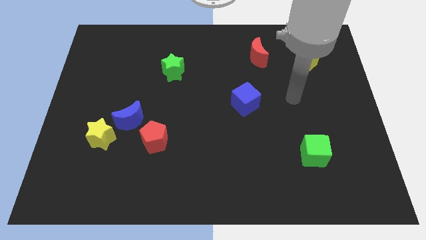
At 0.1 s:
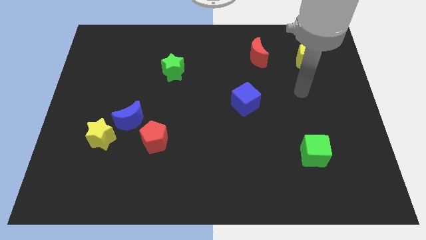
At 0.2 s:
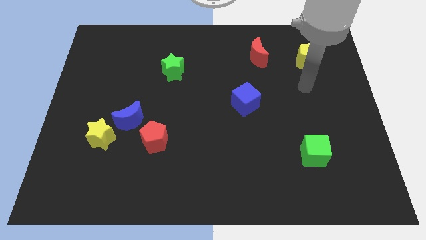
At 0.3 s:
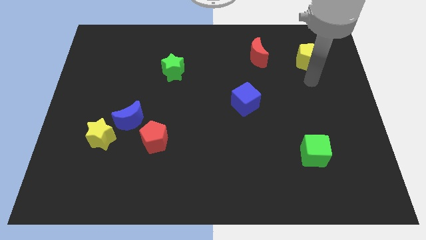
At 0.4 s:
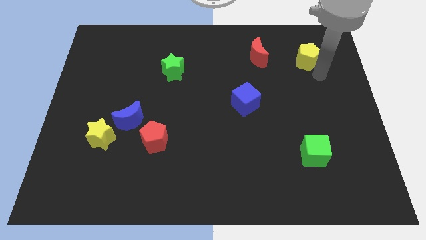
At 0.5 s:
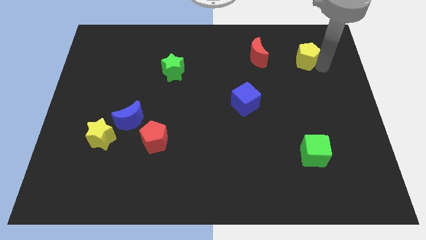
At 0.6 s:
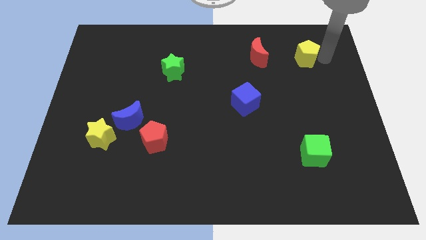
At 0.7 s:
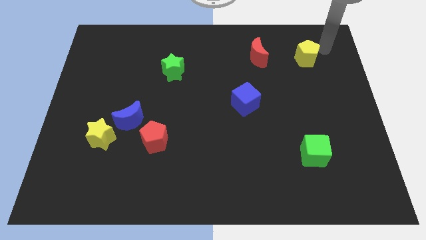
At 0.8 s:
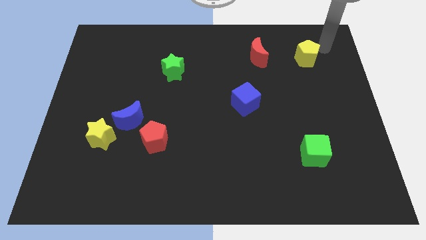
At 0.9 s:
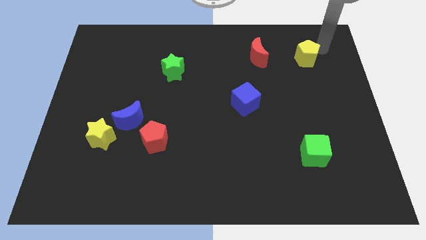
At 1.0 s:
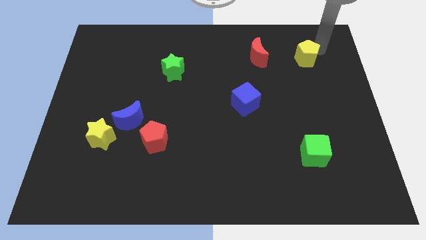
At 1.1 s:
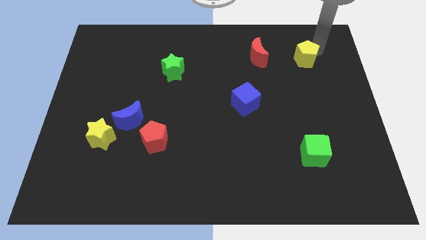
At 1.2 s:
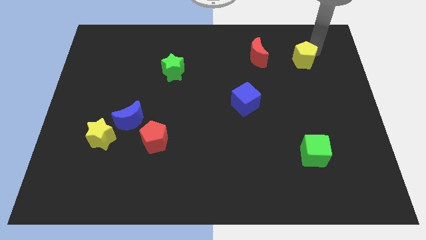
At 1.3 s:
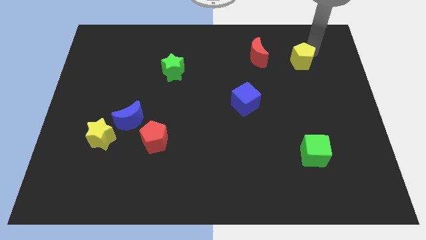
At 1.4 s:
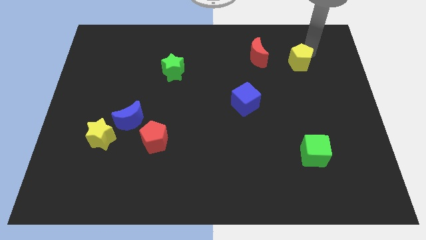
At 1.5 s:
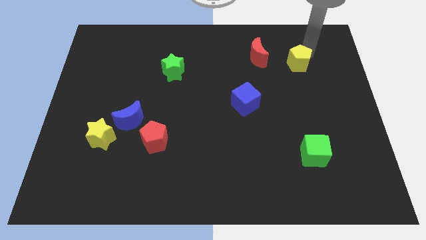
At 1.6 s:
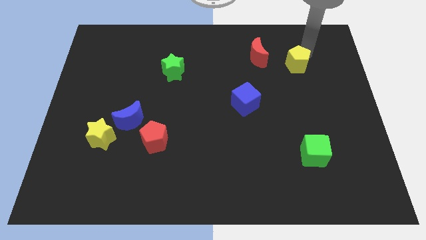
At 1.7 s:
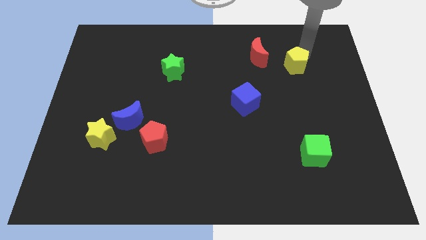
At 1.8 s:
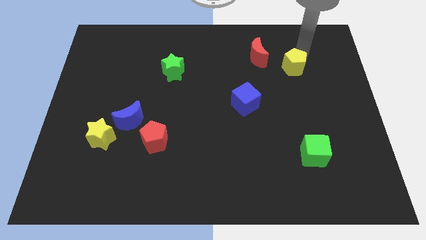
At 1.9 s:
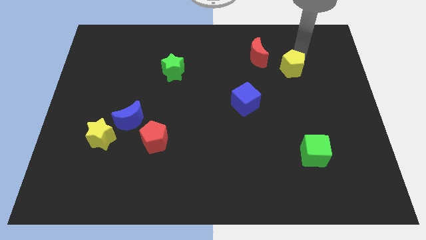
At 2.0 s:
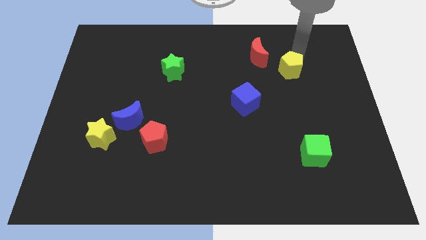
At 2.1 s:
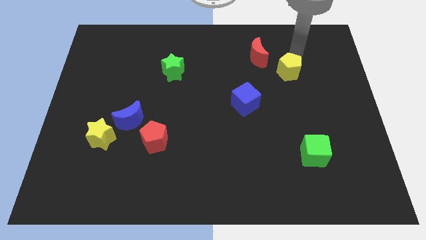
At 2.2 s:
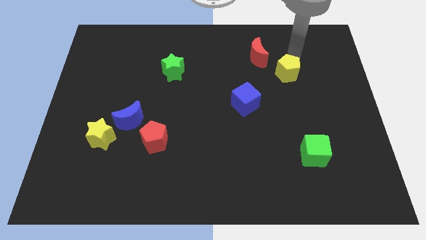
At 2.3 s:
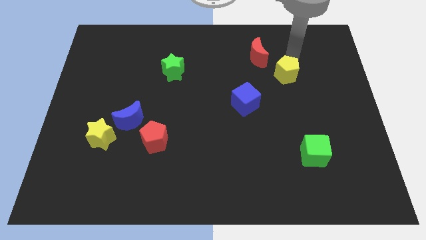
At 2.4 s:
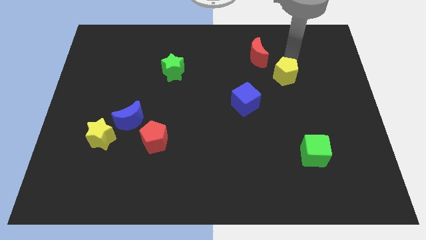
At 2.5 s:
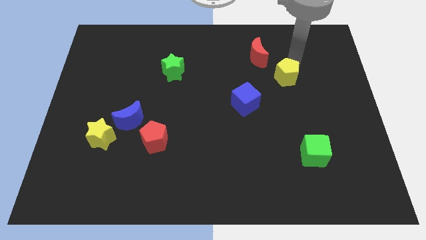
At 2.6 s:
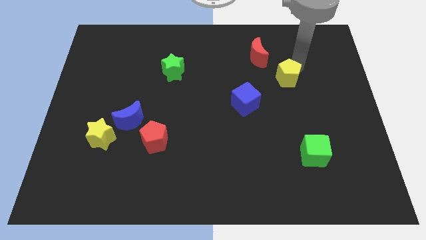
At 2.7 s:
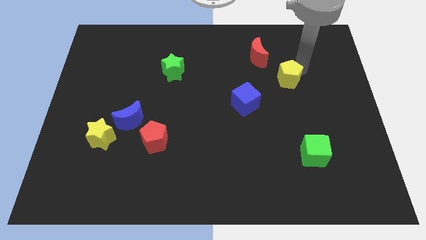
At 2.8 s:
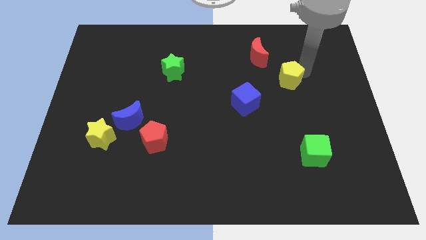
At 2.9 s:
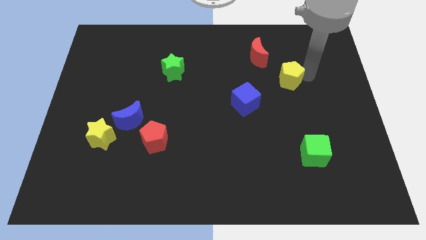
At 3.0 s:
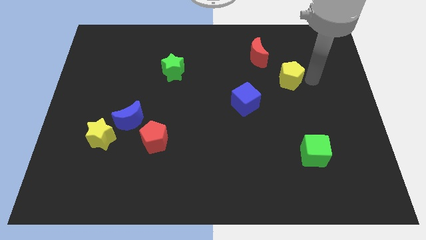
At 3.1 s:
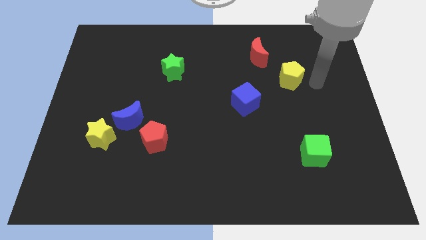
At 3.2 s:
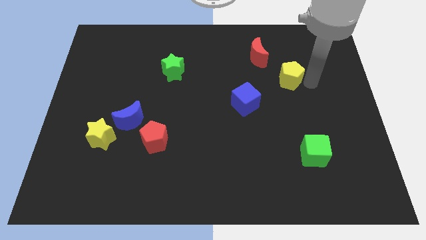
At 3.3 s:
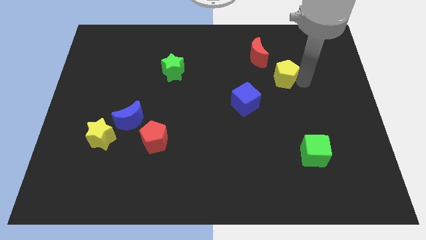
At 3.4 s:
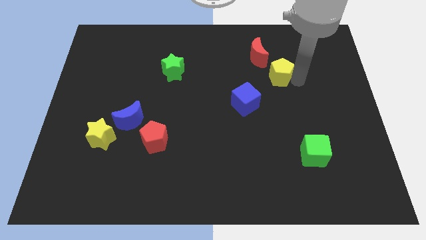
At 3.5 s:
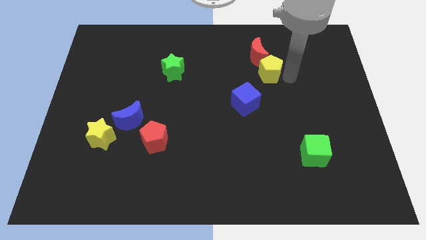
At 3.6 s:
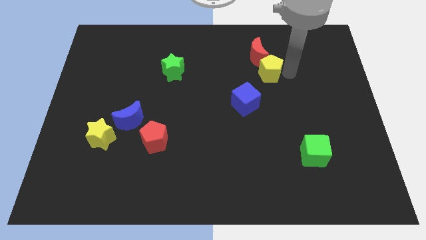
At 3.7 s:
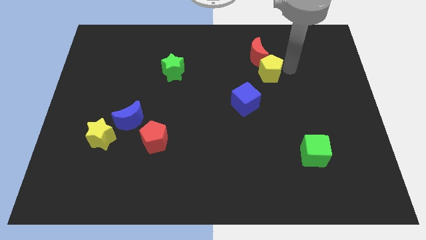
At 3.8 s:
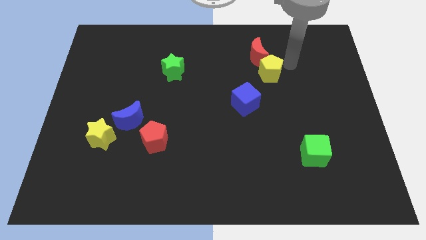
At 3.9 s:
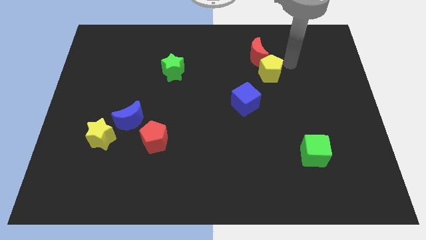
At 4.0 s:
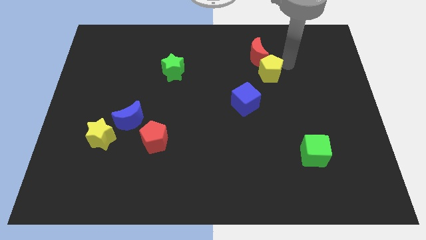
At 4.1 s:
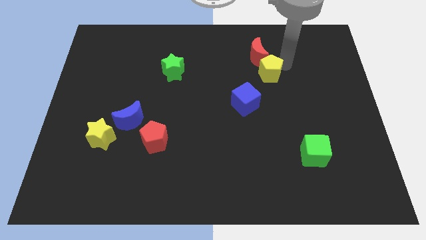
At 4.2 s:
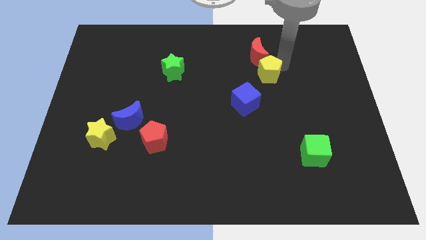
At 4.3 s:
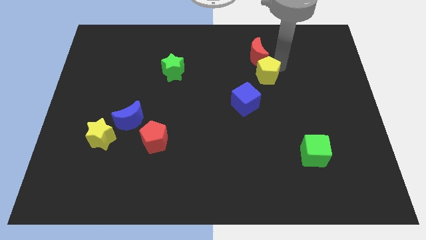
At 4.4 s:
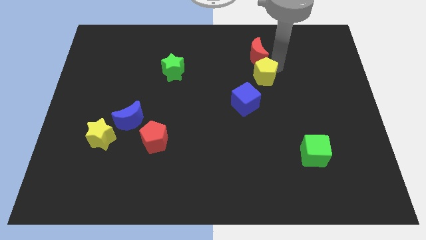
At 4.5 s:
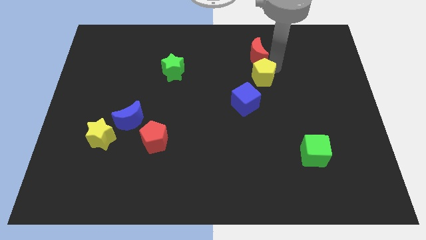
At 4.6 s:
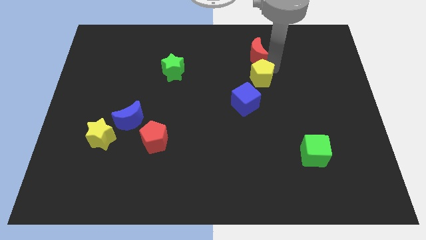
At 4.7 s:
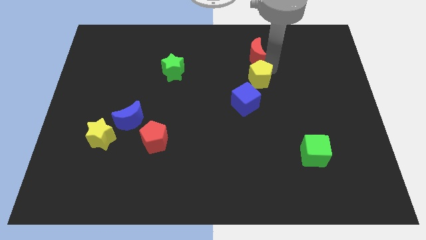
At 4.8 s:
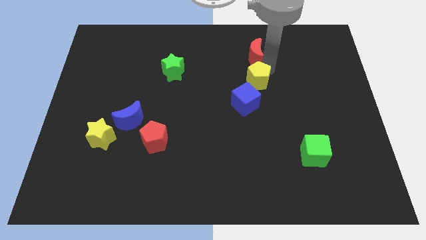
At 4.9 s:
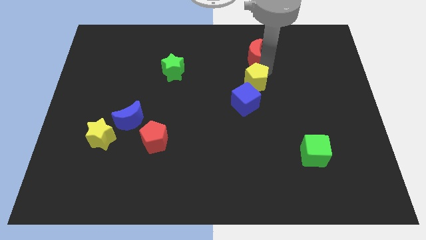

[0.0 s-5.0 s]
put the yellow pentagon to the middle

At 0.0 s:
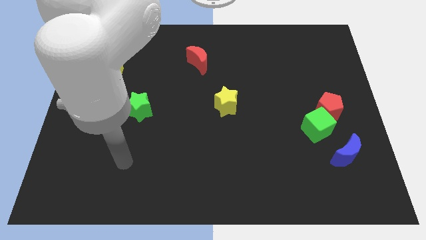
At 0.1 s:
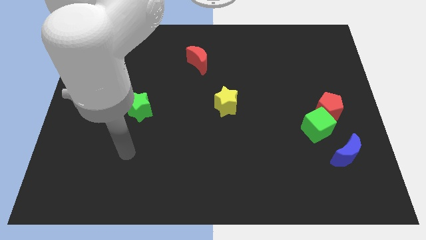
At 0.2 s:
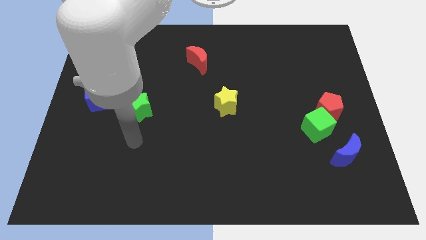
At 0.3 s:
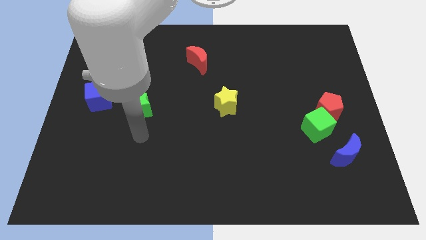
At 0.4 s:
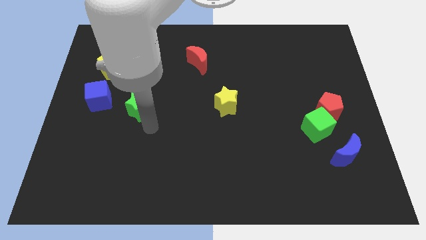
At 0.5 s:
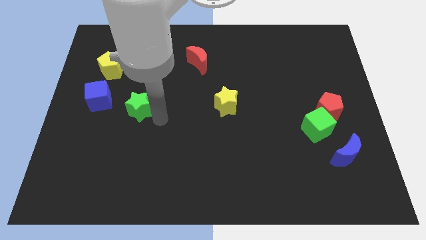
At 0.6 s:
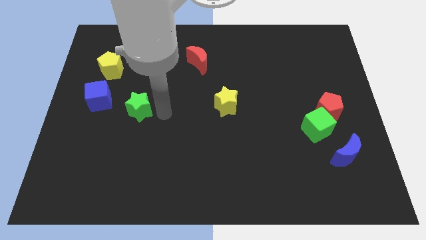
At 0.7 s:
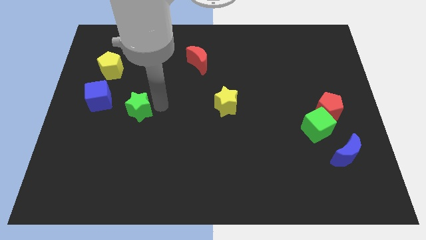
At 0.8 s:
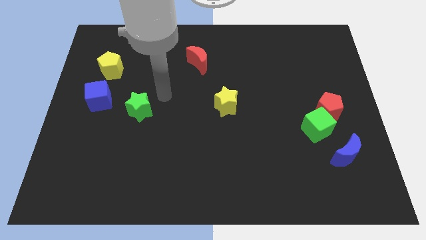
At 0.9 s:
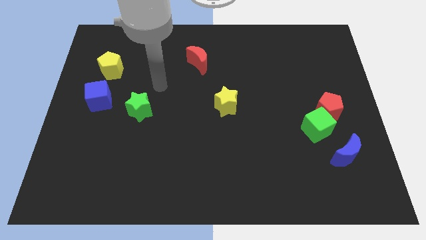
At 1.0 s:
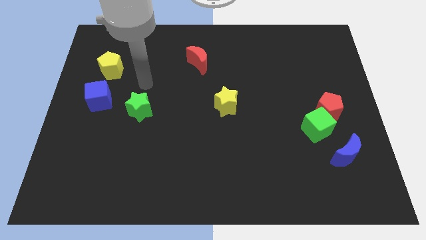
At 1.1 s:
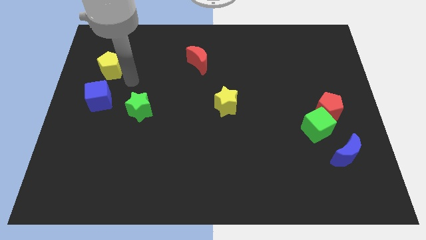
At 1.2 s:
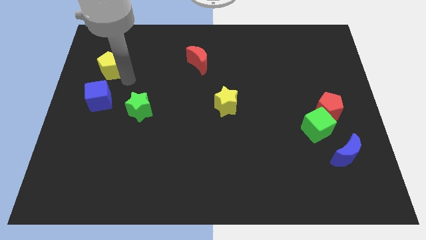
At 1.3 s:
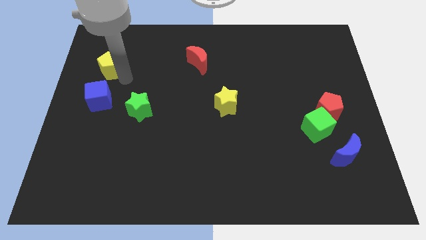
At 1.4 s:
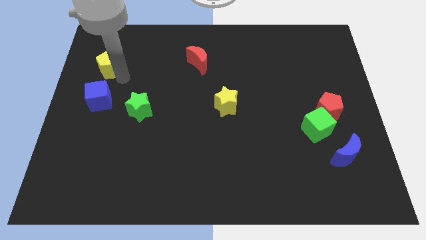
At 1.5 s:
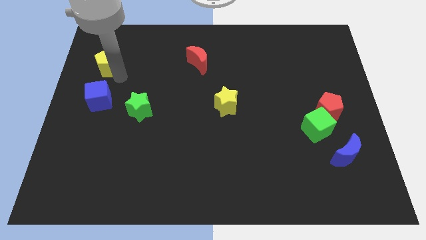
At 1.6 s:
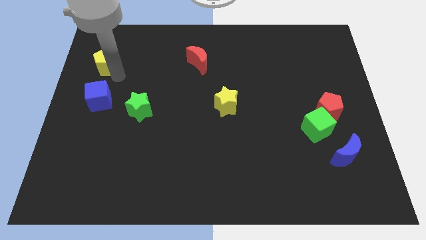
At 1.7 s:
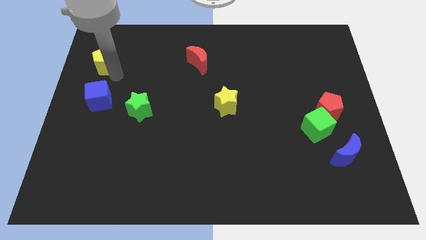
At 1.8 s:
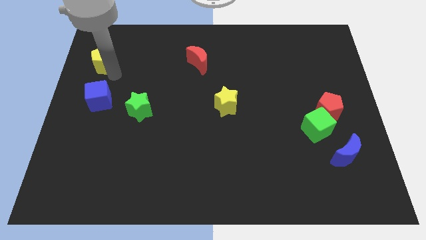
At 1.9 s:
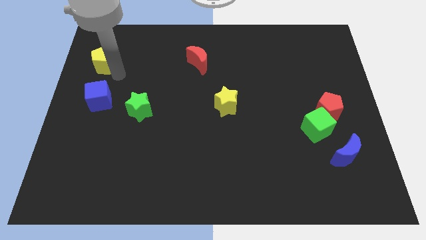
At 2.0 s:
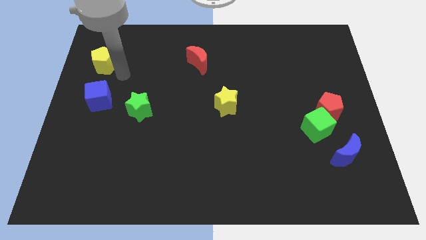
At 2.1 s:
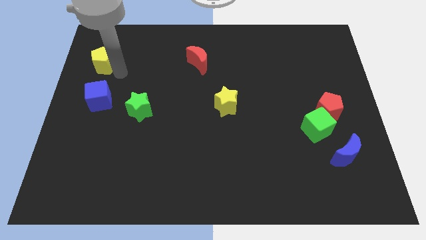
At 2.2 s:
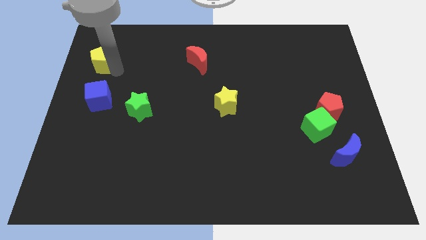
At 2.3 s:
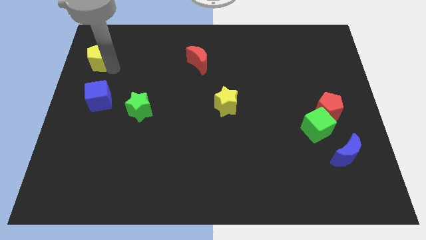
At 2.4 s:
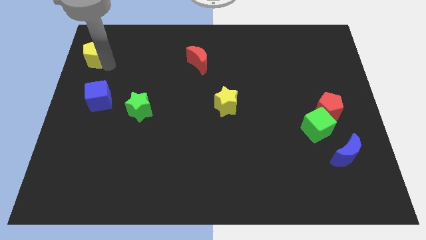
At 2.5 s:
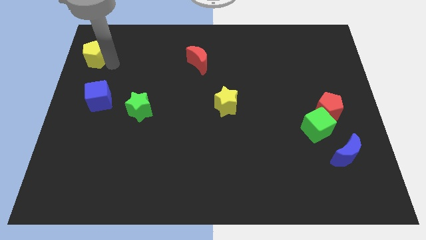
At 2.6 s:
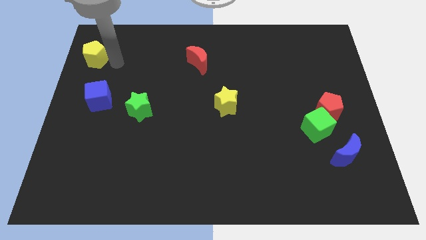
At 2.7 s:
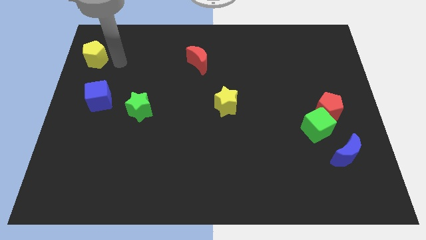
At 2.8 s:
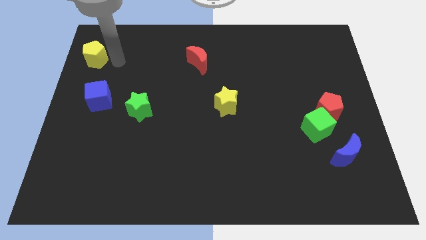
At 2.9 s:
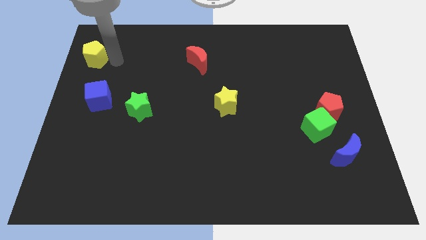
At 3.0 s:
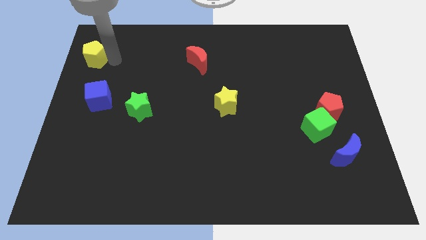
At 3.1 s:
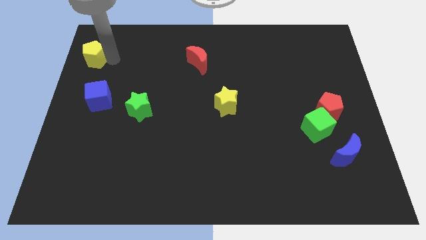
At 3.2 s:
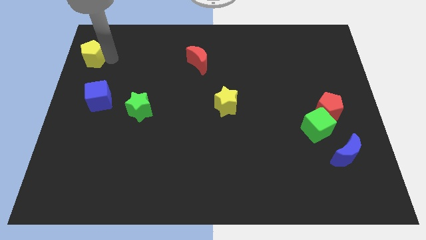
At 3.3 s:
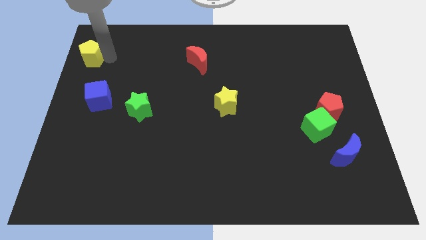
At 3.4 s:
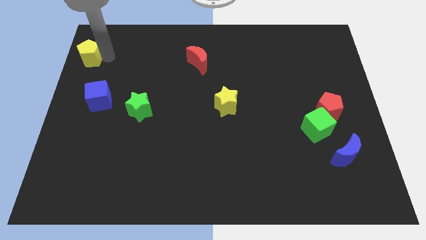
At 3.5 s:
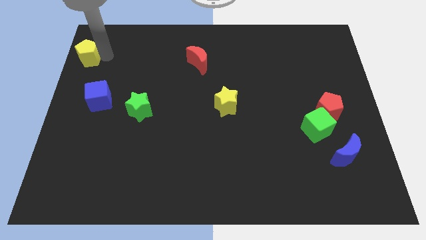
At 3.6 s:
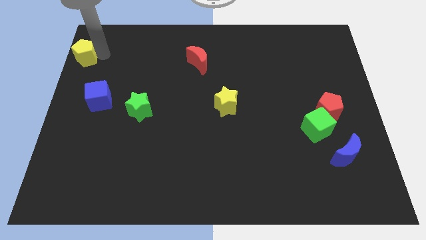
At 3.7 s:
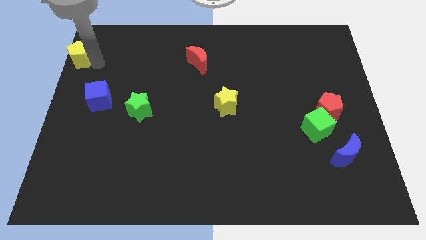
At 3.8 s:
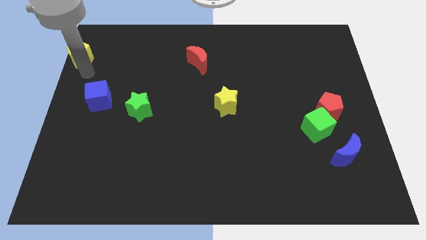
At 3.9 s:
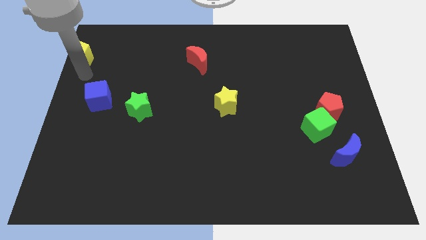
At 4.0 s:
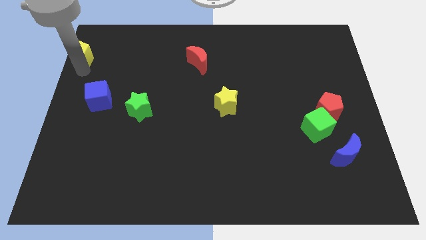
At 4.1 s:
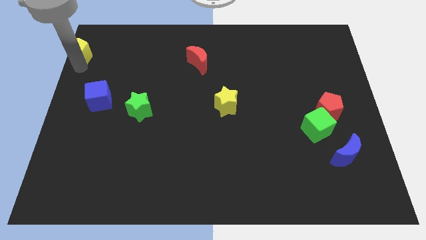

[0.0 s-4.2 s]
move the yellow pentagon to the top left
